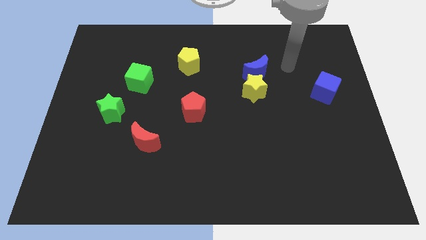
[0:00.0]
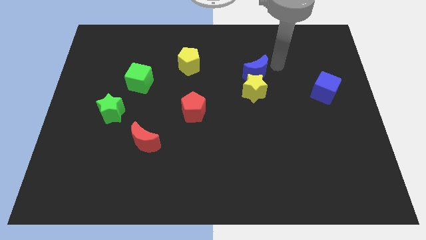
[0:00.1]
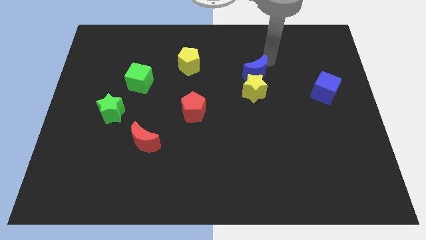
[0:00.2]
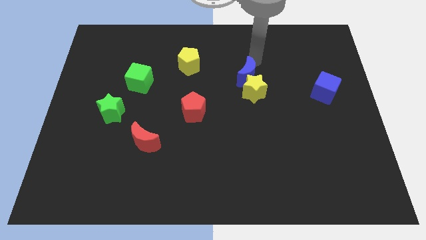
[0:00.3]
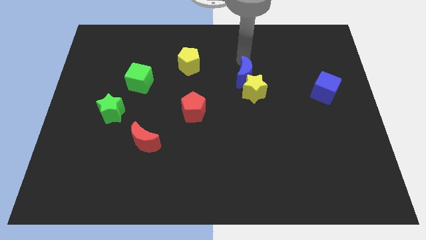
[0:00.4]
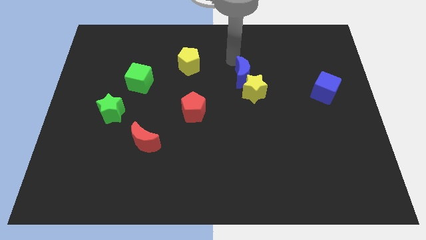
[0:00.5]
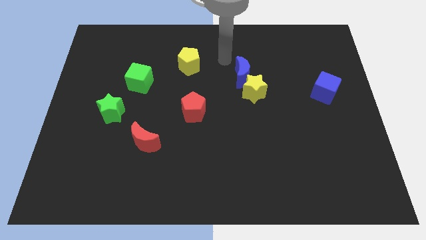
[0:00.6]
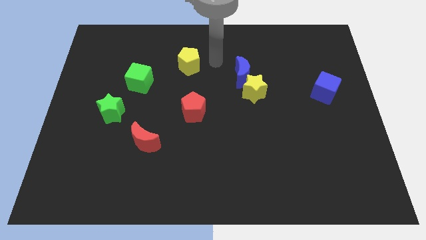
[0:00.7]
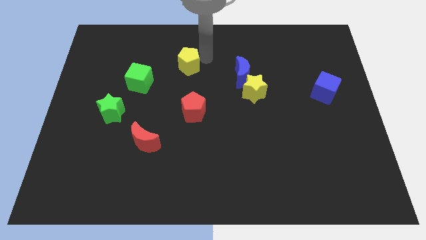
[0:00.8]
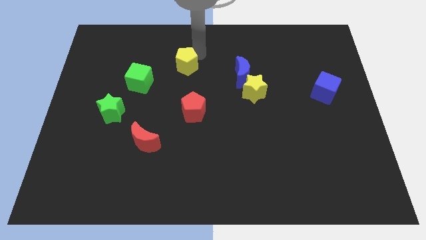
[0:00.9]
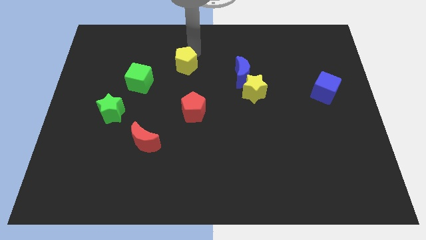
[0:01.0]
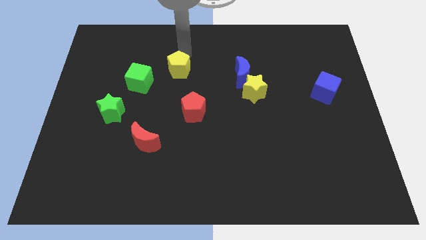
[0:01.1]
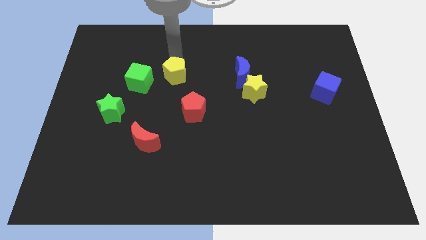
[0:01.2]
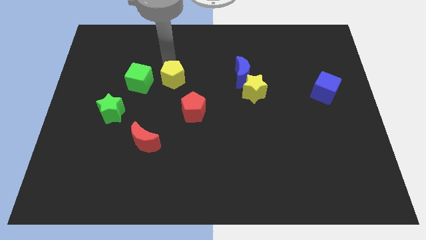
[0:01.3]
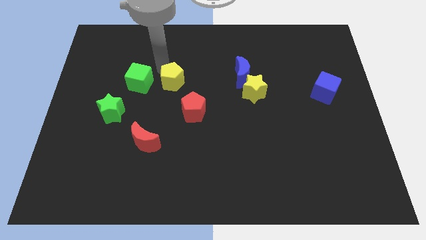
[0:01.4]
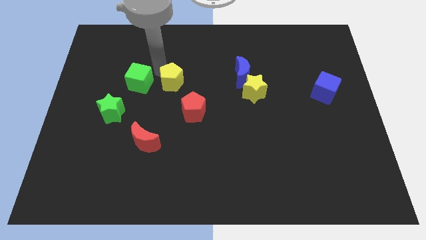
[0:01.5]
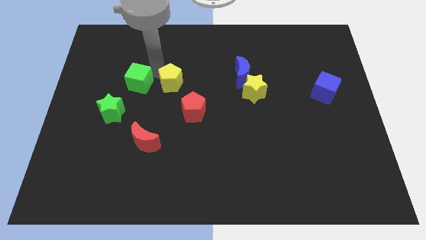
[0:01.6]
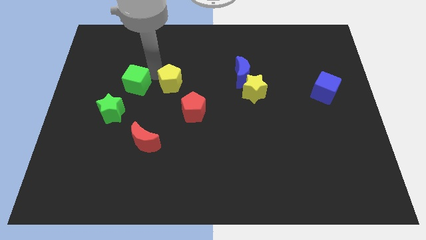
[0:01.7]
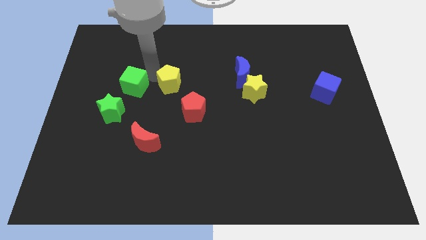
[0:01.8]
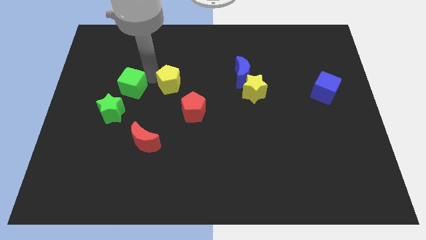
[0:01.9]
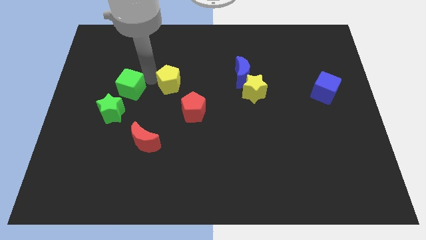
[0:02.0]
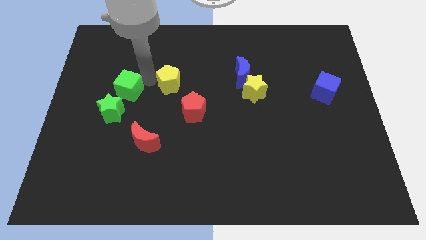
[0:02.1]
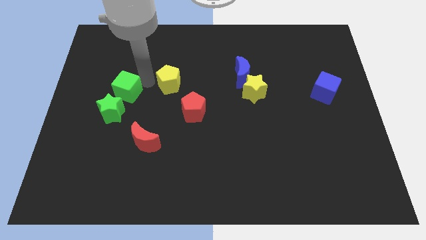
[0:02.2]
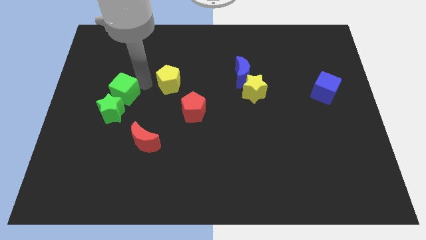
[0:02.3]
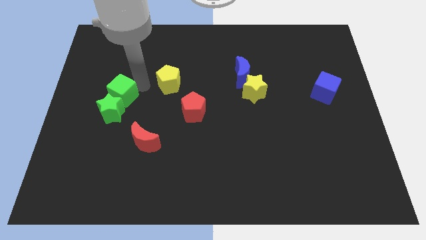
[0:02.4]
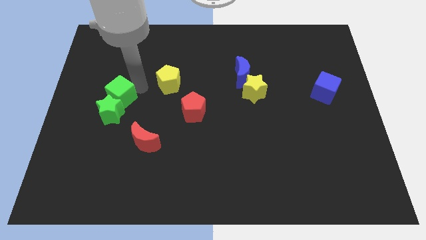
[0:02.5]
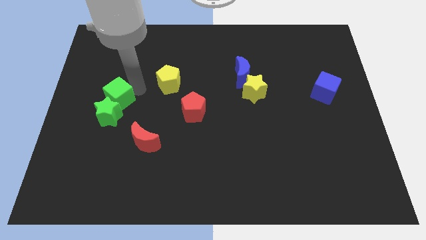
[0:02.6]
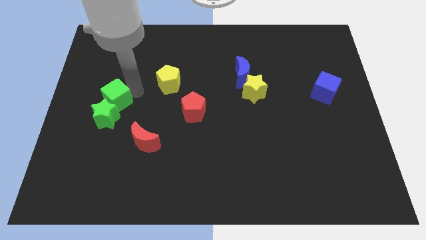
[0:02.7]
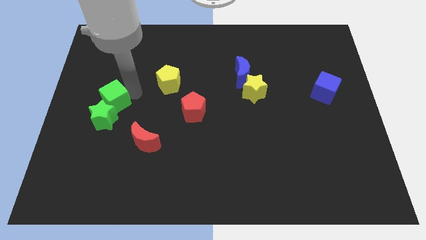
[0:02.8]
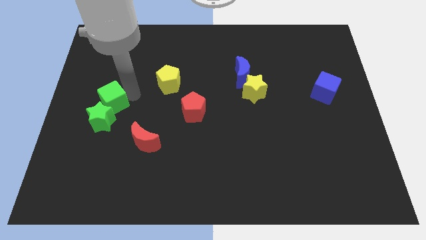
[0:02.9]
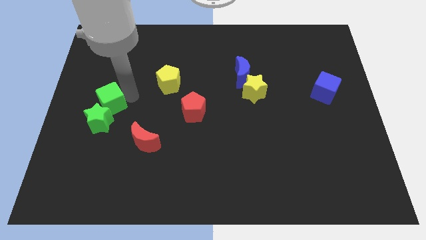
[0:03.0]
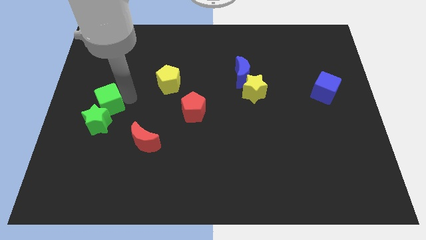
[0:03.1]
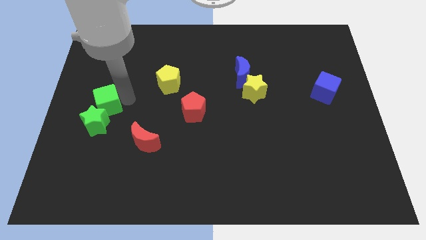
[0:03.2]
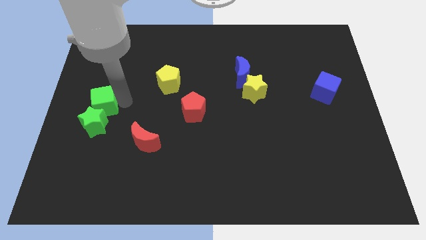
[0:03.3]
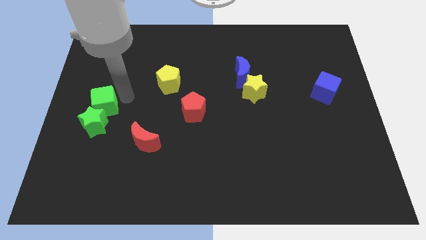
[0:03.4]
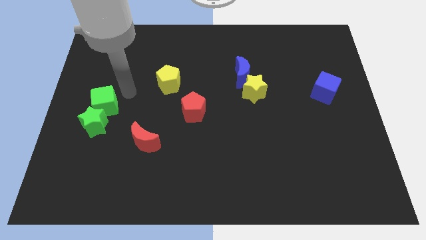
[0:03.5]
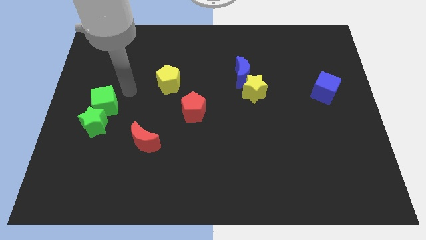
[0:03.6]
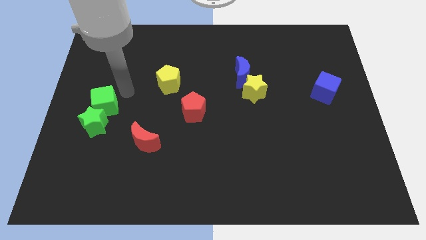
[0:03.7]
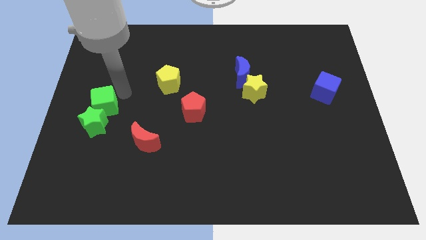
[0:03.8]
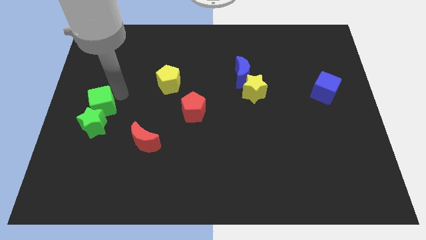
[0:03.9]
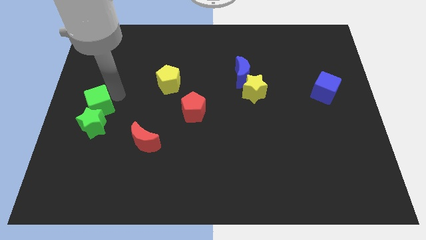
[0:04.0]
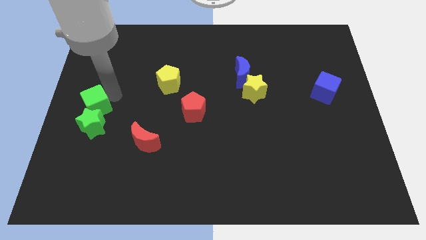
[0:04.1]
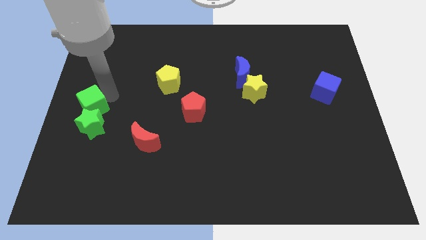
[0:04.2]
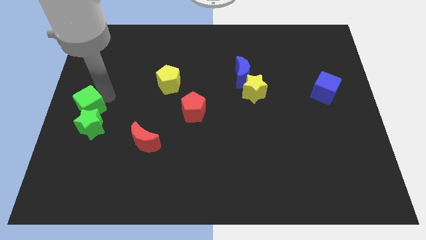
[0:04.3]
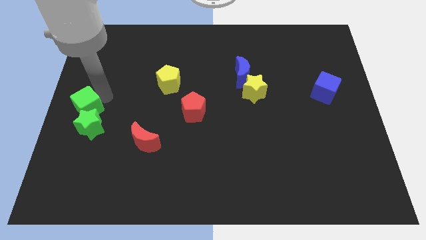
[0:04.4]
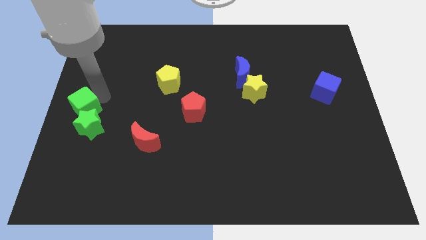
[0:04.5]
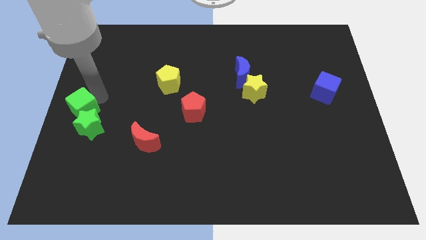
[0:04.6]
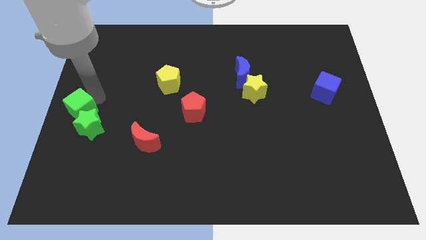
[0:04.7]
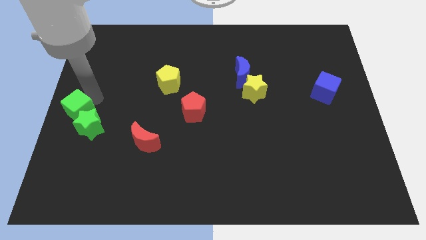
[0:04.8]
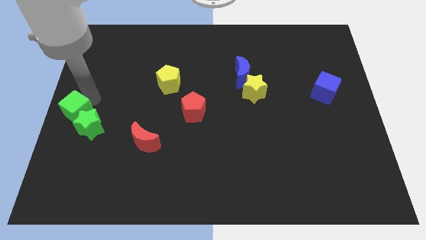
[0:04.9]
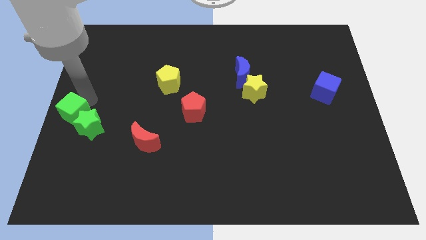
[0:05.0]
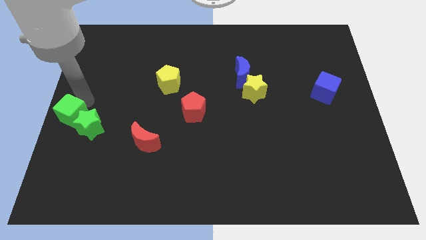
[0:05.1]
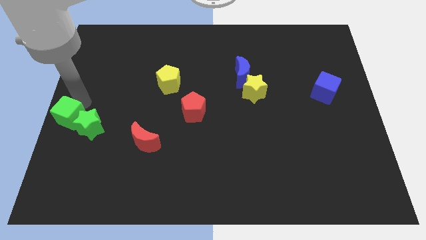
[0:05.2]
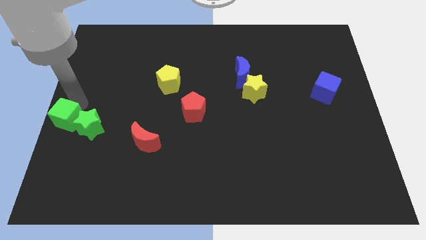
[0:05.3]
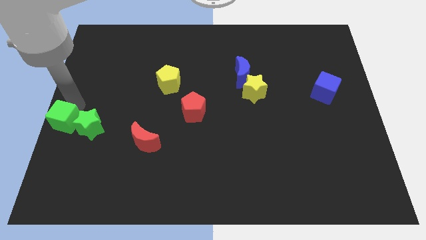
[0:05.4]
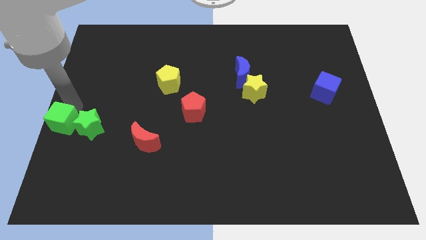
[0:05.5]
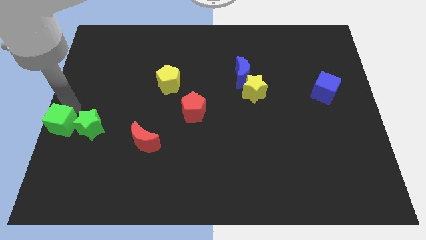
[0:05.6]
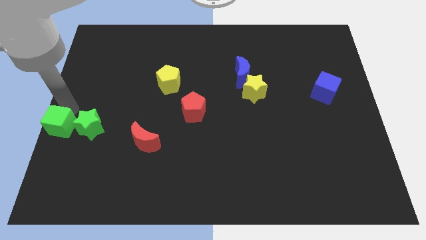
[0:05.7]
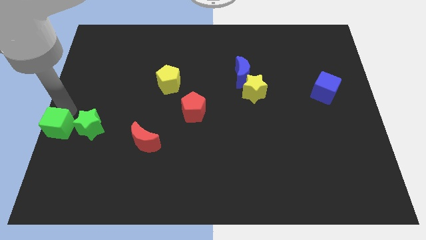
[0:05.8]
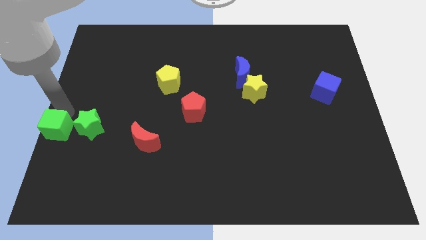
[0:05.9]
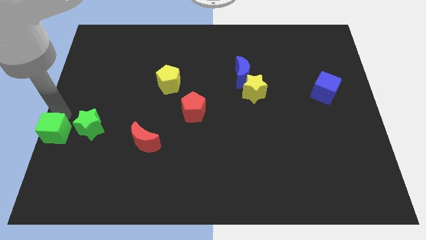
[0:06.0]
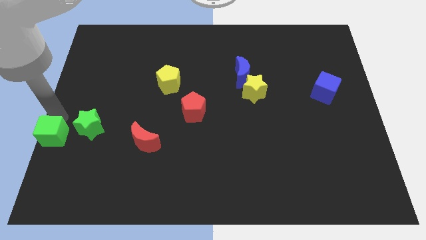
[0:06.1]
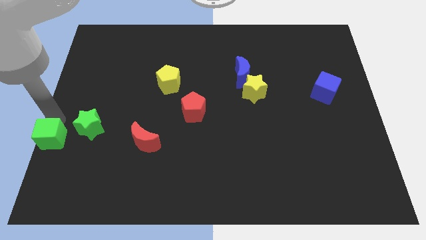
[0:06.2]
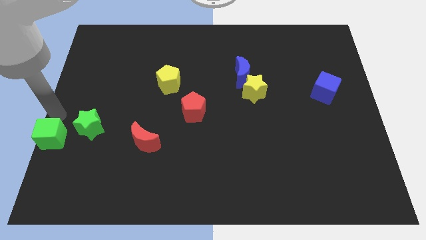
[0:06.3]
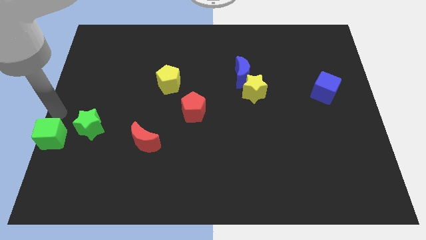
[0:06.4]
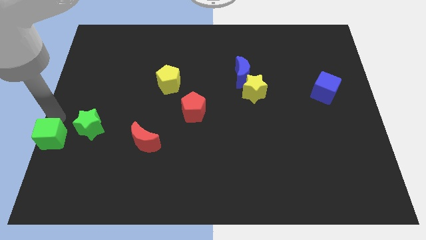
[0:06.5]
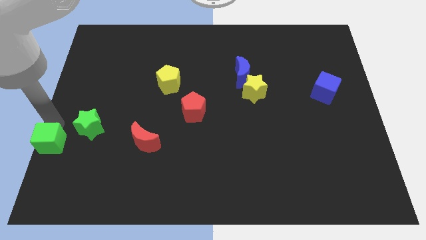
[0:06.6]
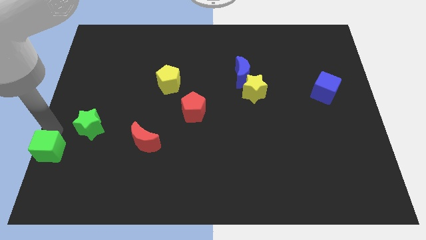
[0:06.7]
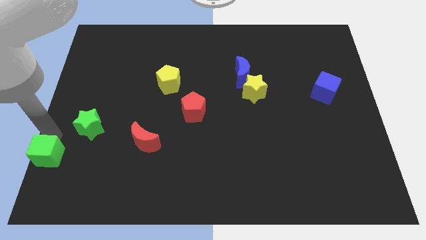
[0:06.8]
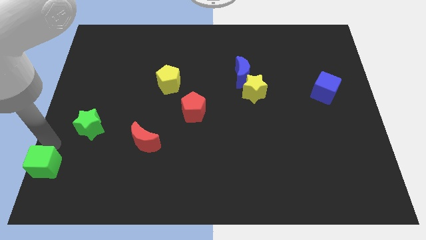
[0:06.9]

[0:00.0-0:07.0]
slide the green cube to the lower left corner
